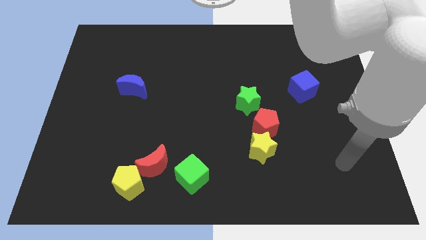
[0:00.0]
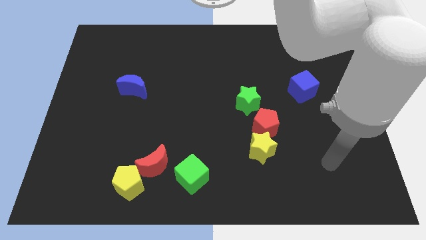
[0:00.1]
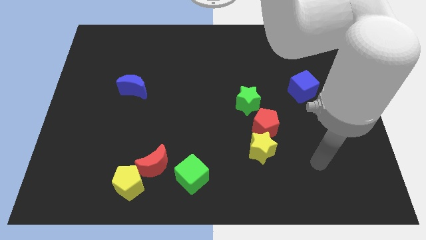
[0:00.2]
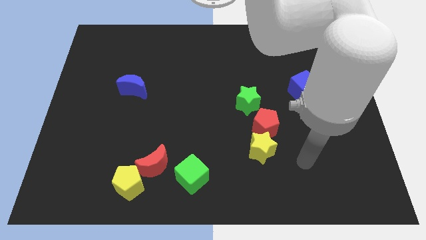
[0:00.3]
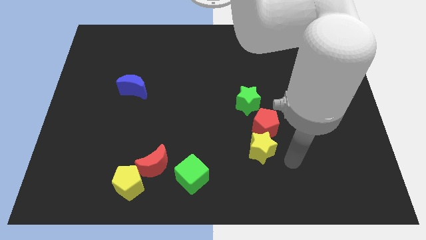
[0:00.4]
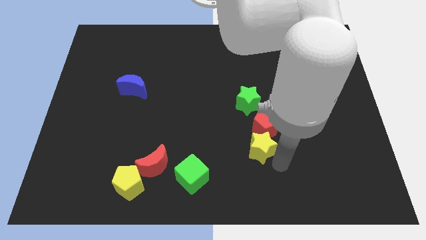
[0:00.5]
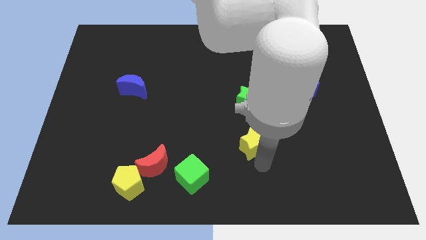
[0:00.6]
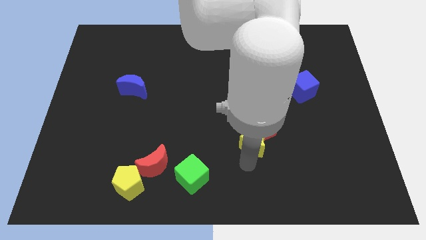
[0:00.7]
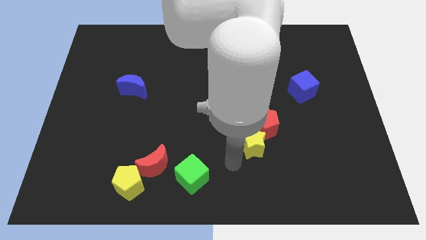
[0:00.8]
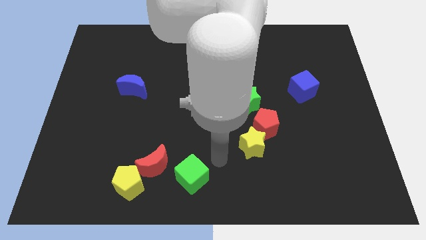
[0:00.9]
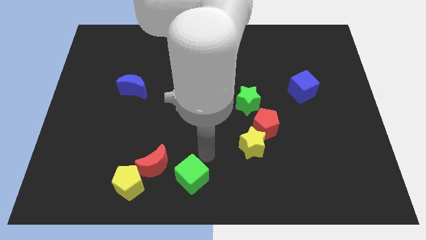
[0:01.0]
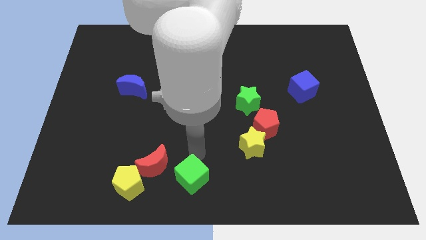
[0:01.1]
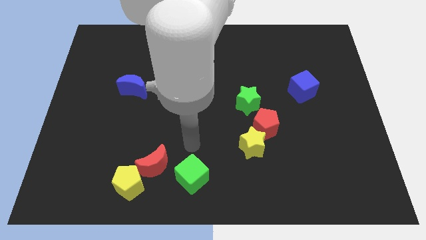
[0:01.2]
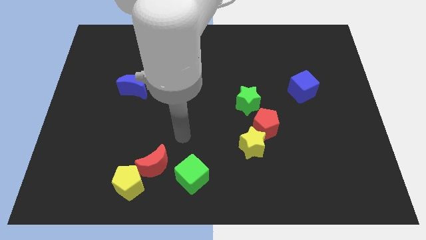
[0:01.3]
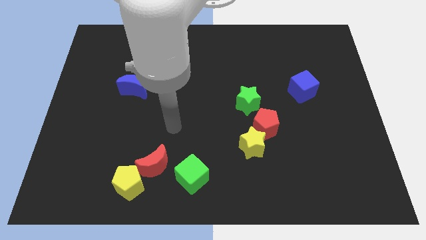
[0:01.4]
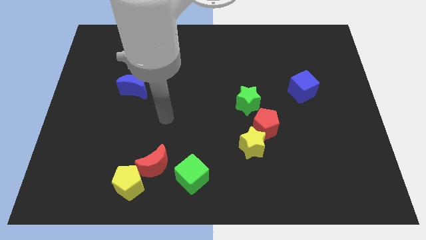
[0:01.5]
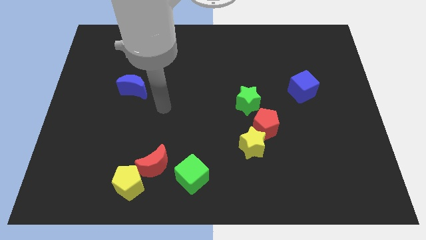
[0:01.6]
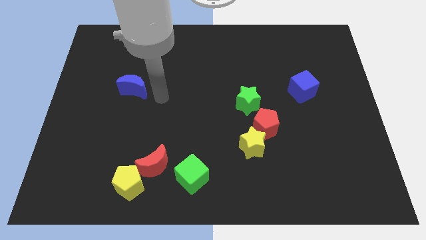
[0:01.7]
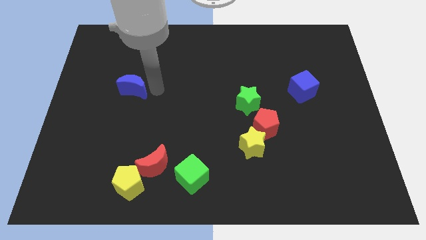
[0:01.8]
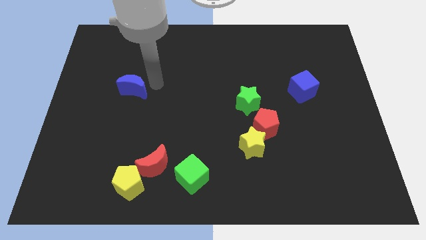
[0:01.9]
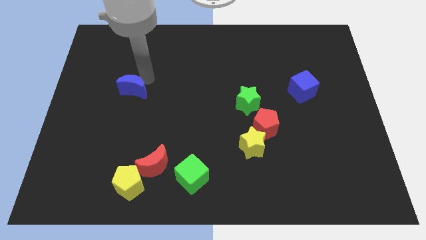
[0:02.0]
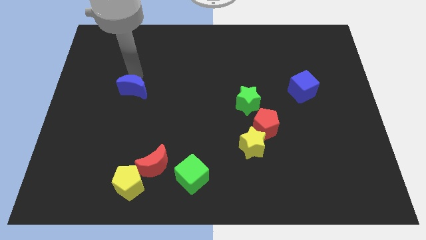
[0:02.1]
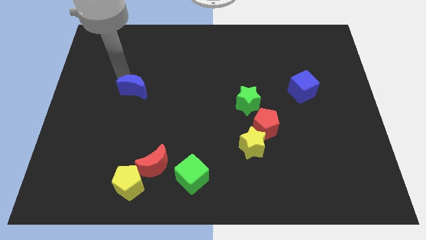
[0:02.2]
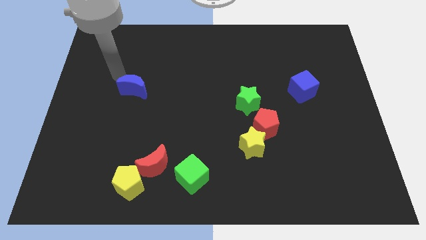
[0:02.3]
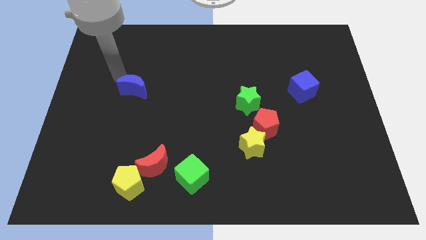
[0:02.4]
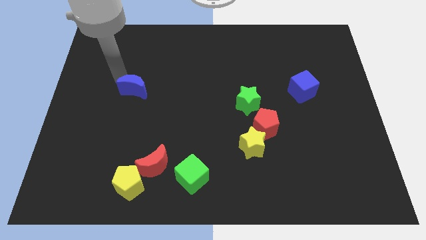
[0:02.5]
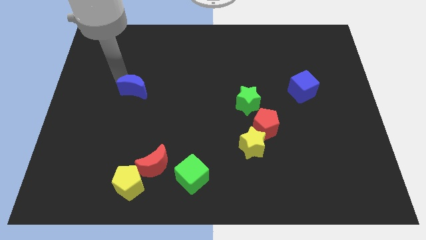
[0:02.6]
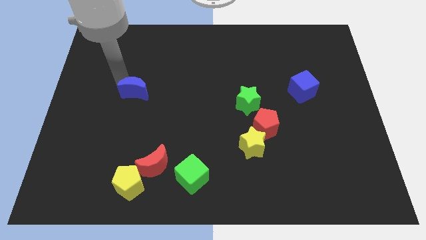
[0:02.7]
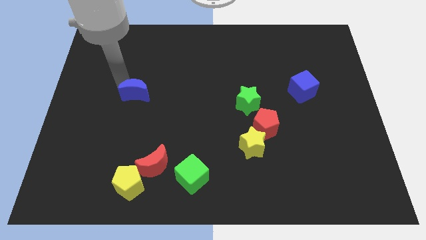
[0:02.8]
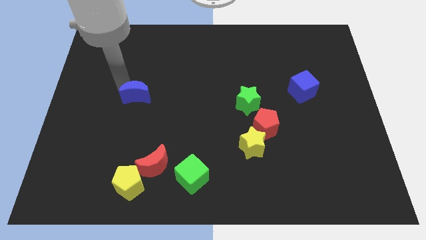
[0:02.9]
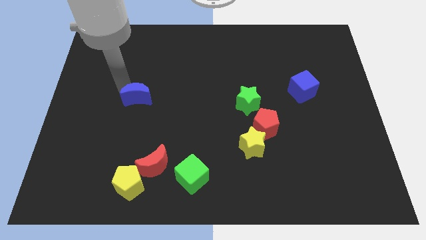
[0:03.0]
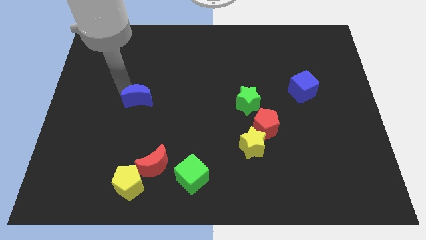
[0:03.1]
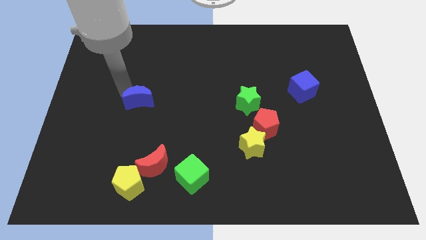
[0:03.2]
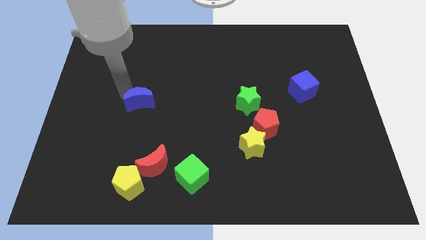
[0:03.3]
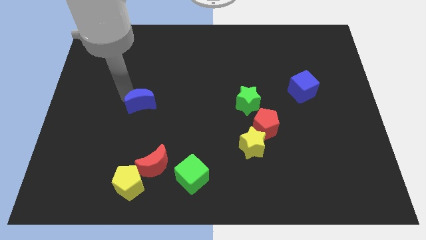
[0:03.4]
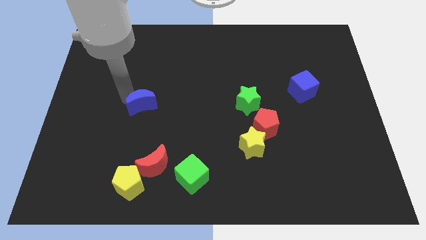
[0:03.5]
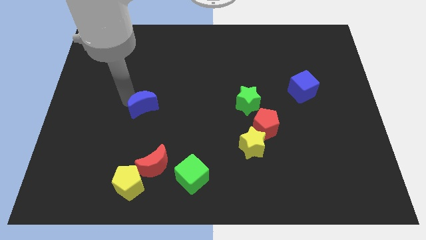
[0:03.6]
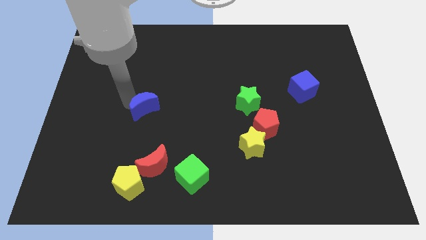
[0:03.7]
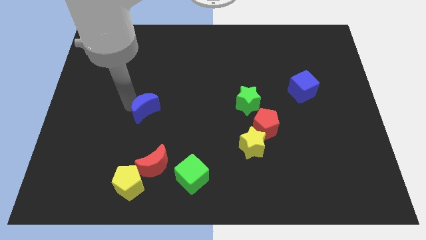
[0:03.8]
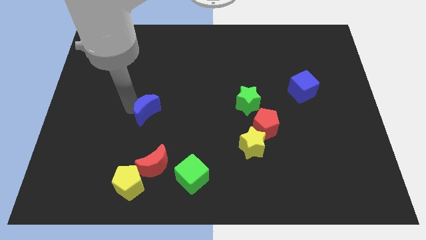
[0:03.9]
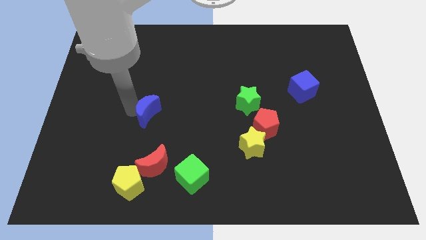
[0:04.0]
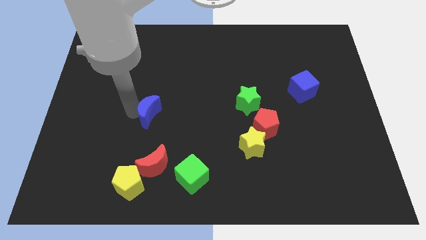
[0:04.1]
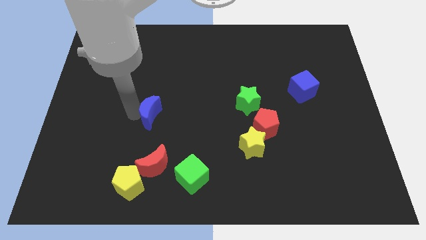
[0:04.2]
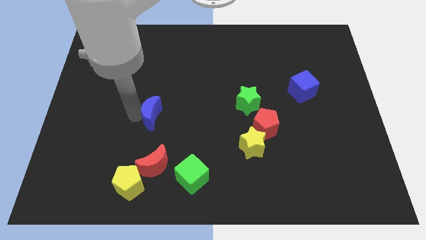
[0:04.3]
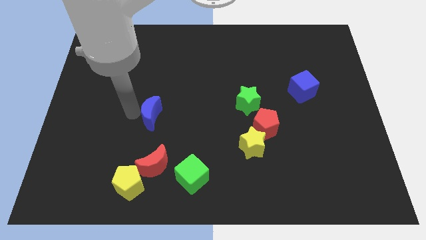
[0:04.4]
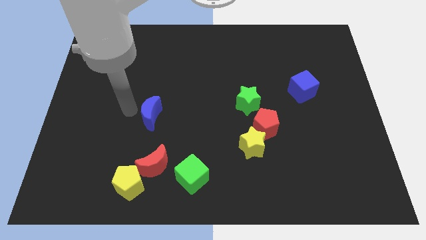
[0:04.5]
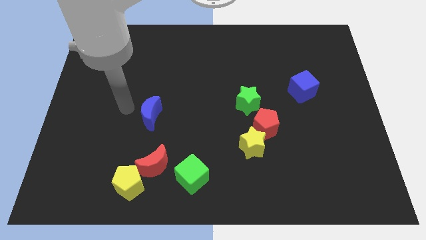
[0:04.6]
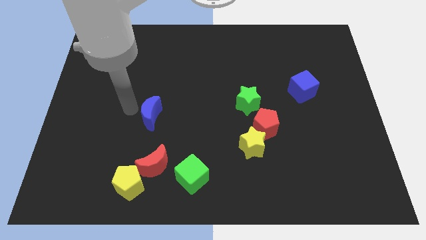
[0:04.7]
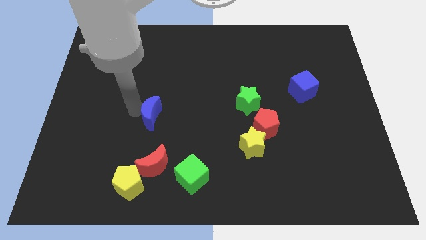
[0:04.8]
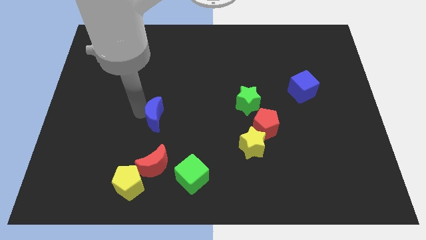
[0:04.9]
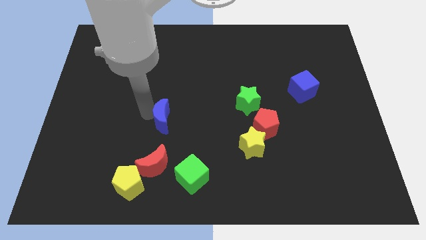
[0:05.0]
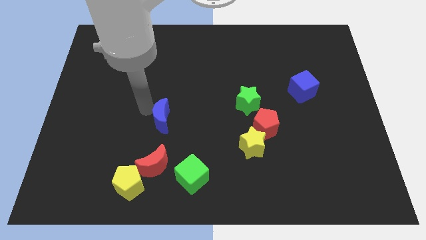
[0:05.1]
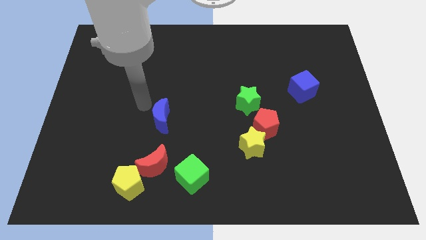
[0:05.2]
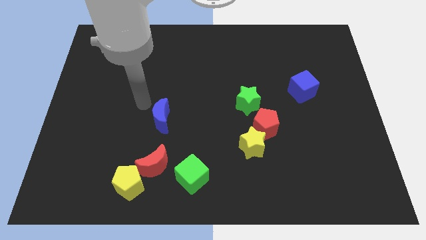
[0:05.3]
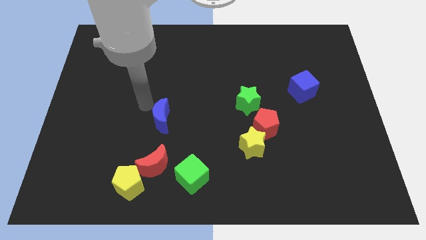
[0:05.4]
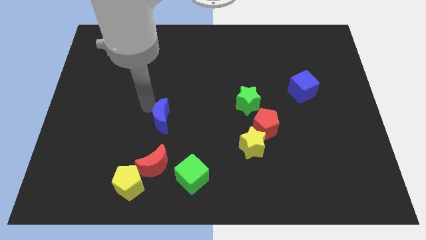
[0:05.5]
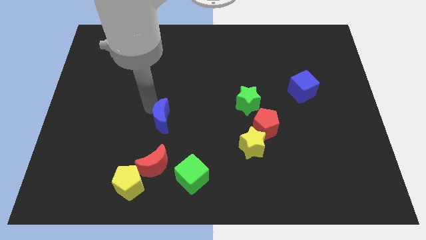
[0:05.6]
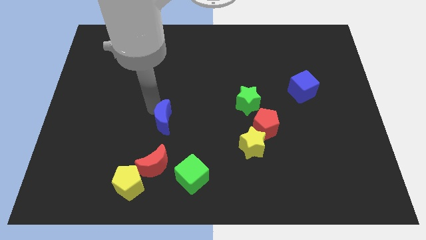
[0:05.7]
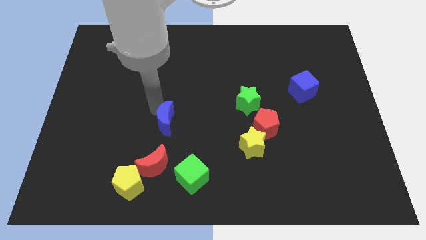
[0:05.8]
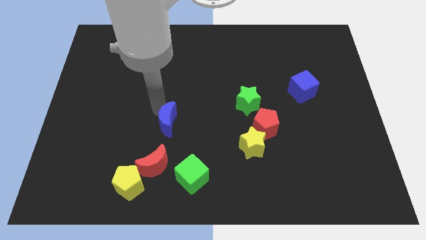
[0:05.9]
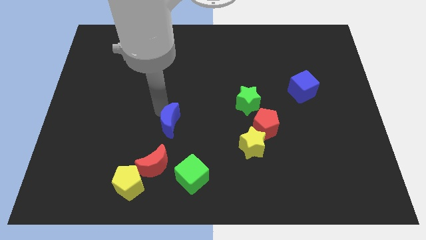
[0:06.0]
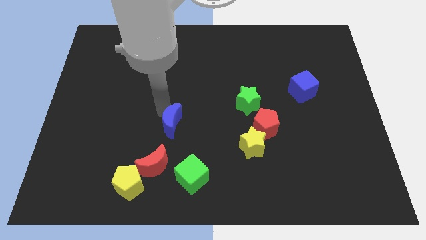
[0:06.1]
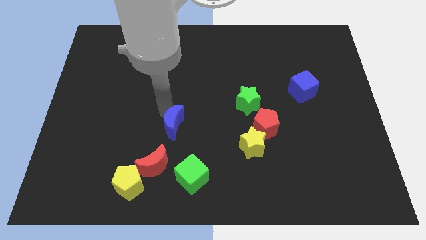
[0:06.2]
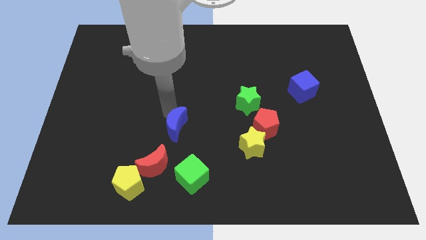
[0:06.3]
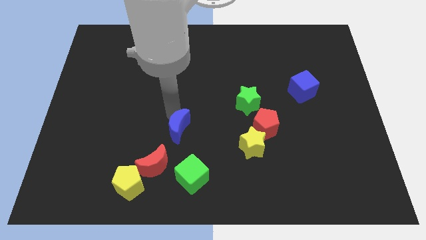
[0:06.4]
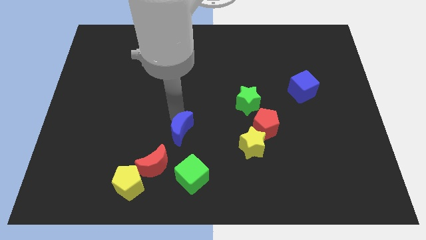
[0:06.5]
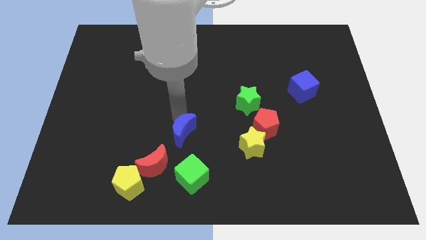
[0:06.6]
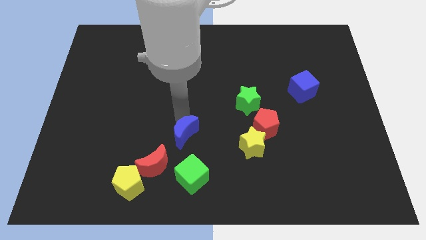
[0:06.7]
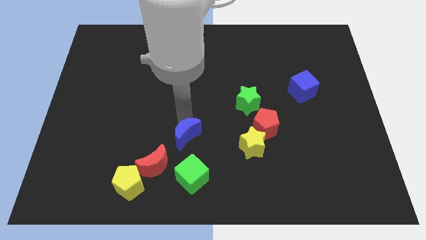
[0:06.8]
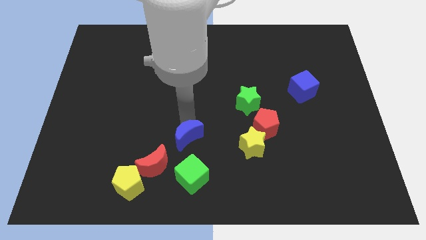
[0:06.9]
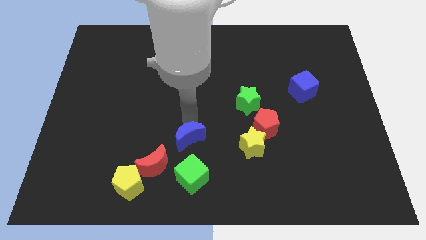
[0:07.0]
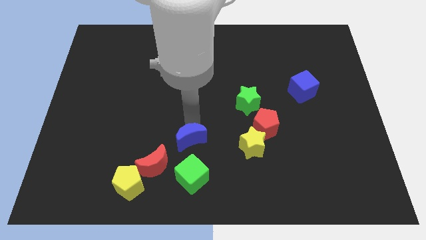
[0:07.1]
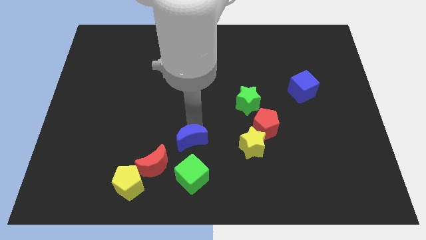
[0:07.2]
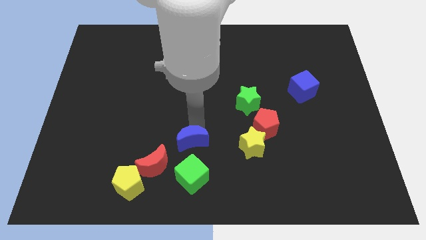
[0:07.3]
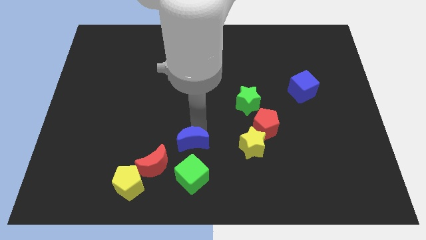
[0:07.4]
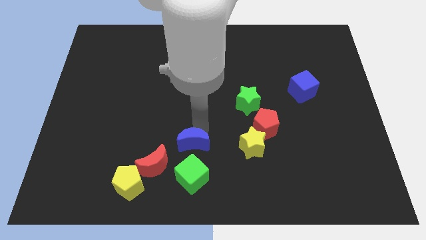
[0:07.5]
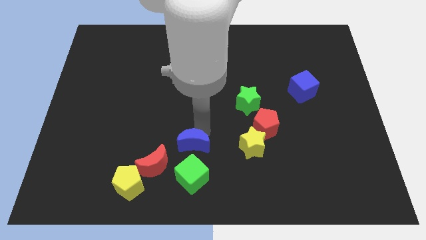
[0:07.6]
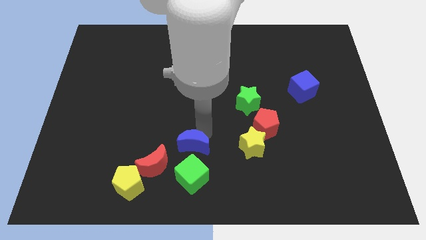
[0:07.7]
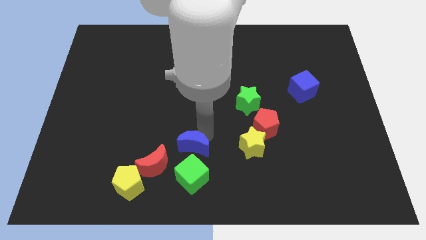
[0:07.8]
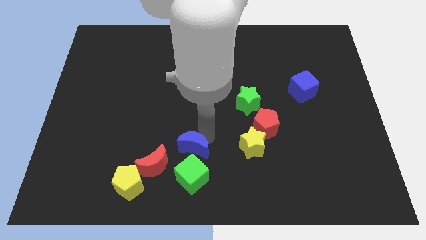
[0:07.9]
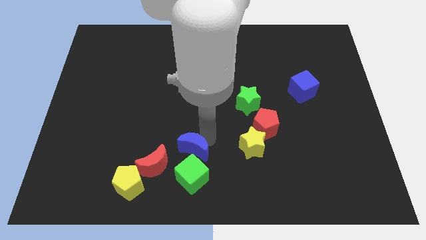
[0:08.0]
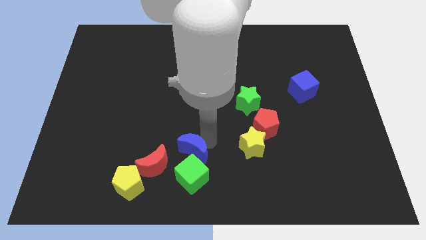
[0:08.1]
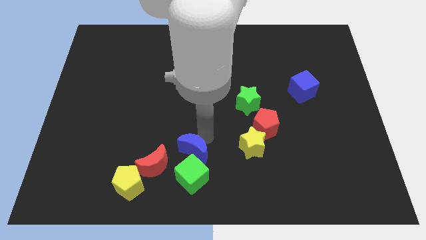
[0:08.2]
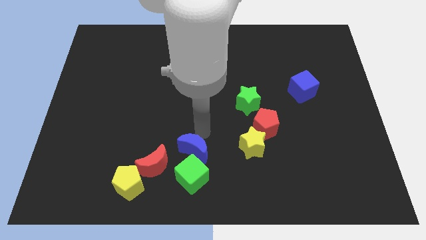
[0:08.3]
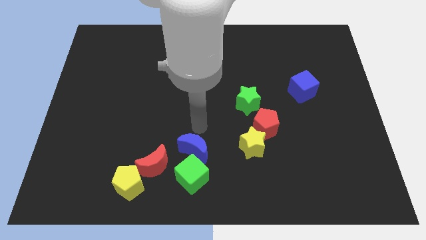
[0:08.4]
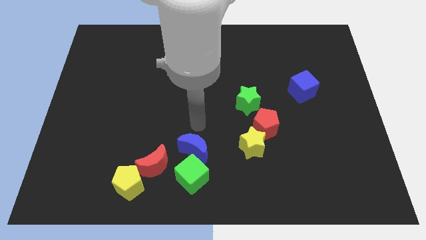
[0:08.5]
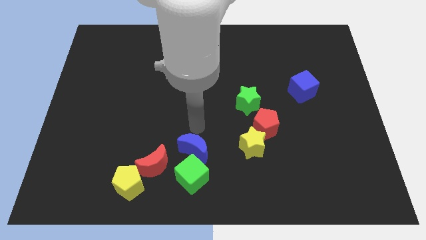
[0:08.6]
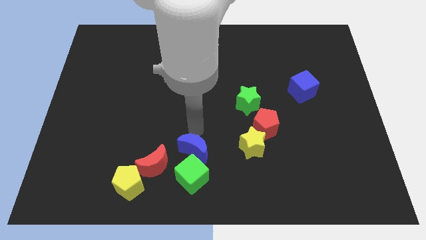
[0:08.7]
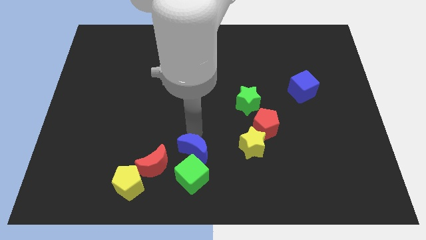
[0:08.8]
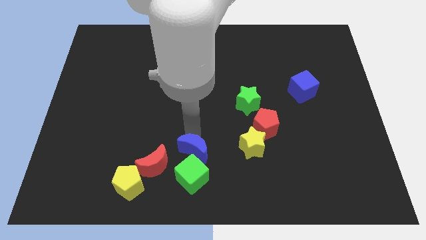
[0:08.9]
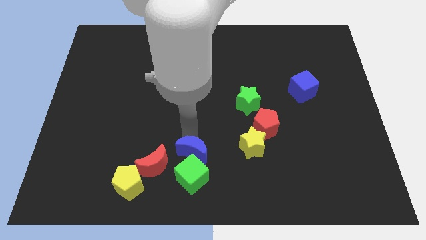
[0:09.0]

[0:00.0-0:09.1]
push the blue moon to the green cube
